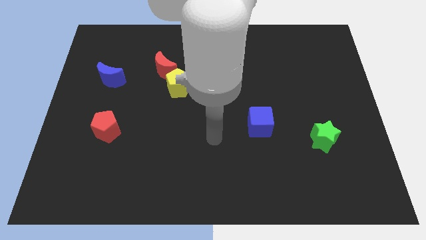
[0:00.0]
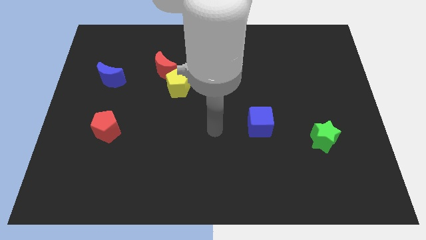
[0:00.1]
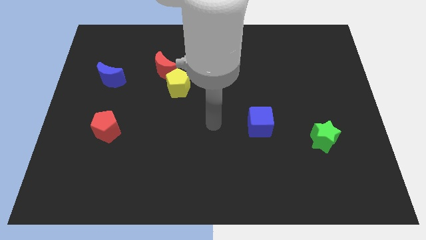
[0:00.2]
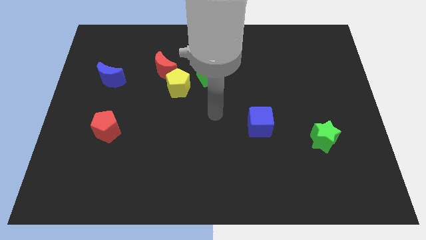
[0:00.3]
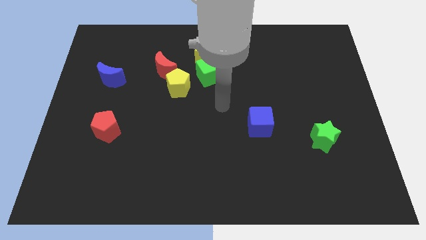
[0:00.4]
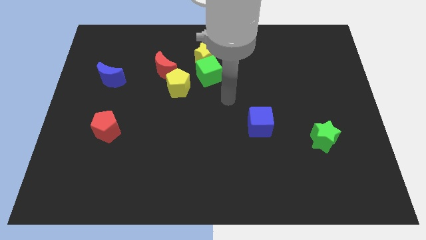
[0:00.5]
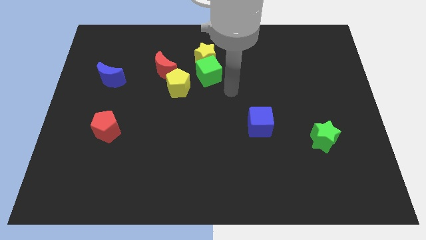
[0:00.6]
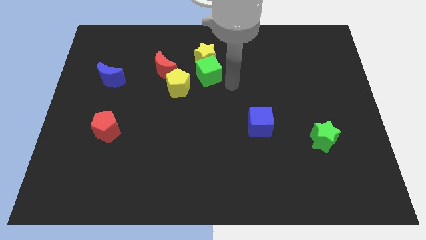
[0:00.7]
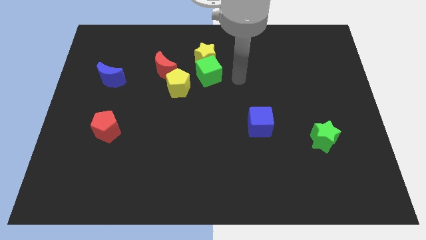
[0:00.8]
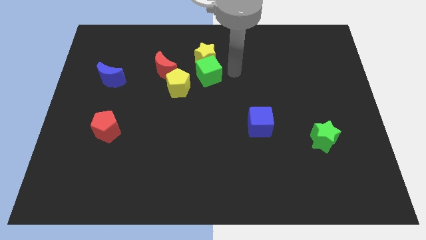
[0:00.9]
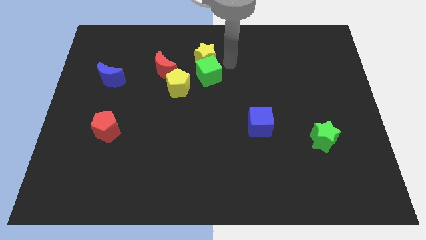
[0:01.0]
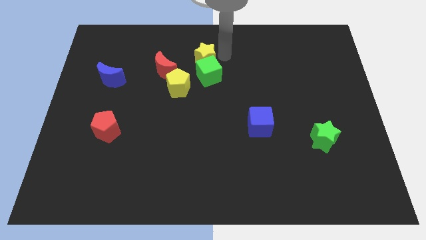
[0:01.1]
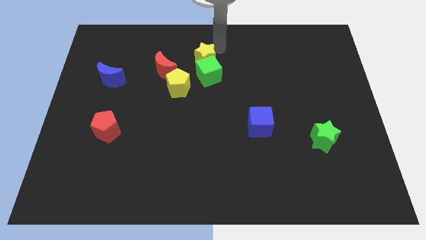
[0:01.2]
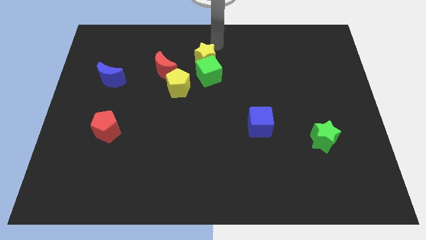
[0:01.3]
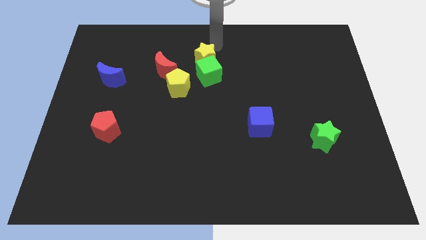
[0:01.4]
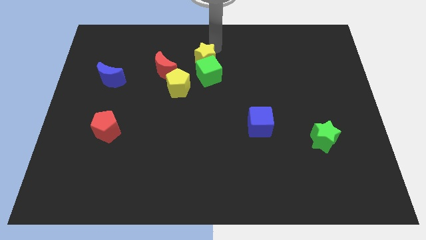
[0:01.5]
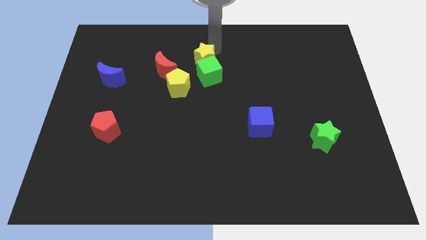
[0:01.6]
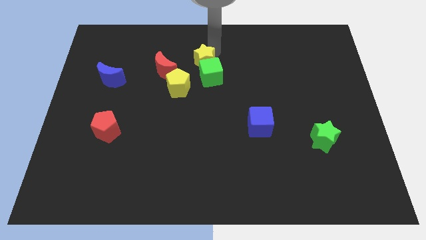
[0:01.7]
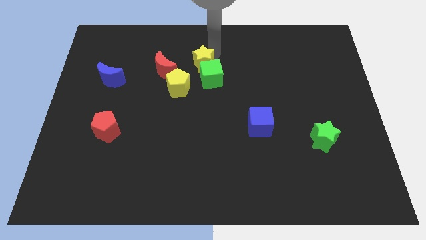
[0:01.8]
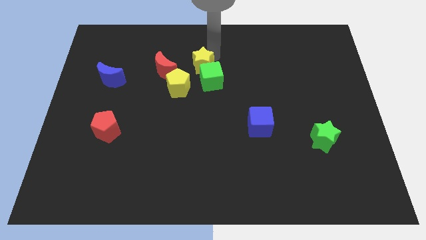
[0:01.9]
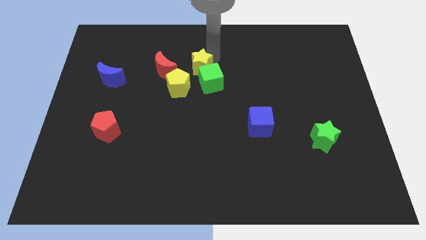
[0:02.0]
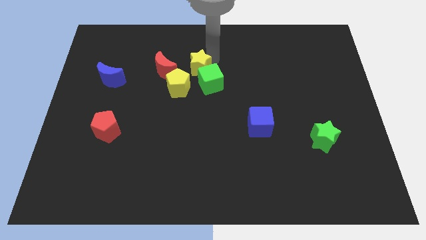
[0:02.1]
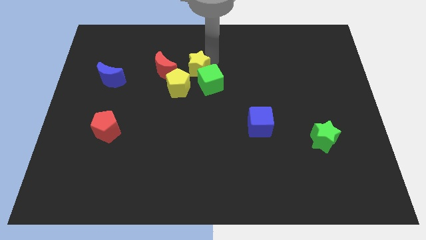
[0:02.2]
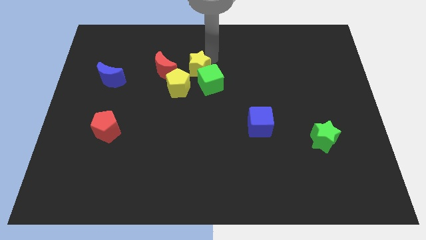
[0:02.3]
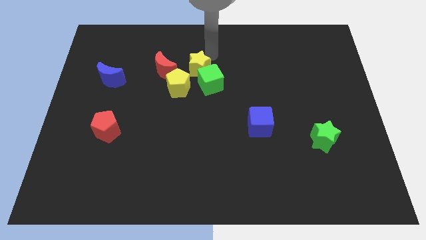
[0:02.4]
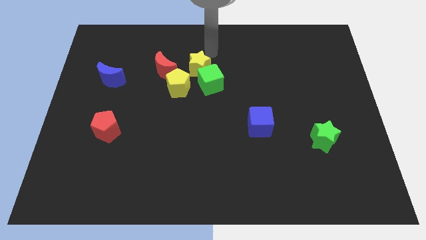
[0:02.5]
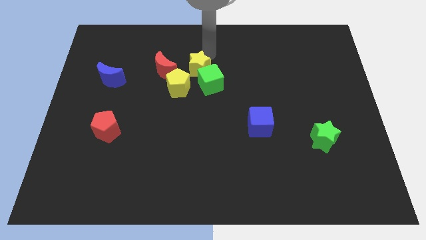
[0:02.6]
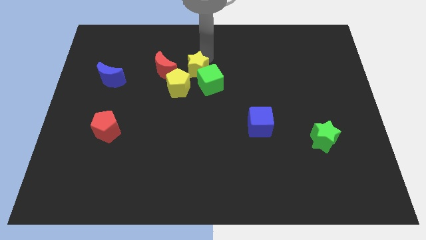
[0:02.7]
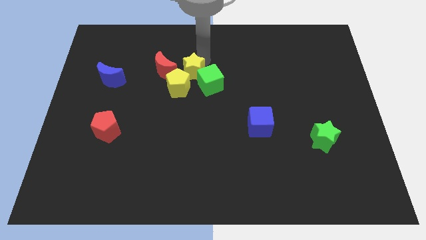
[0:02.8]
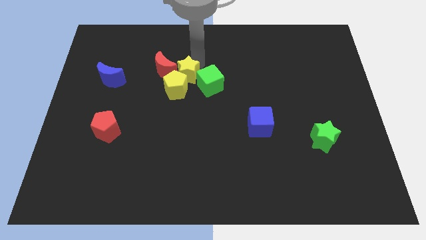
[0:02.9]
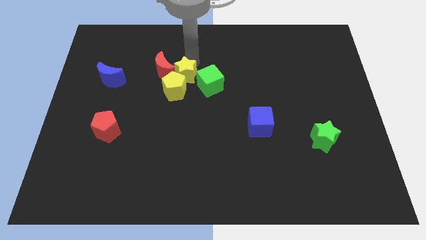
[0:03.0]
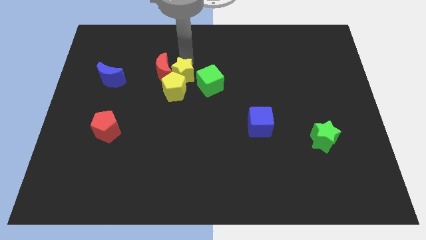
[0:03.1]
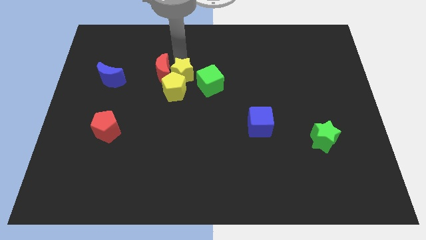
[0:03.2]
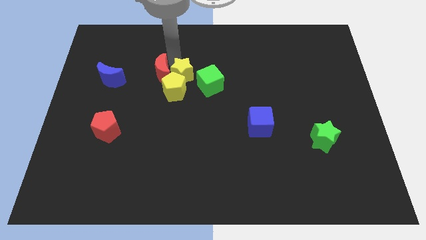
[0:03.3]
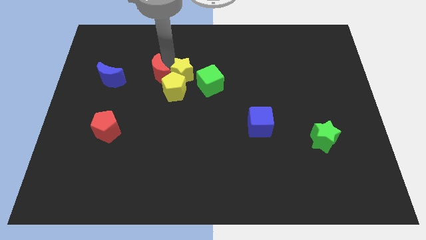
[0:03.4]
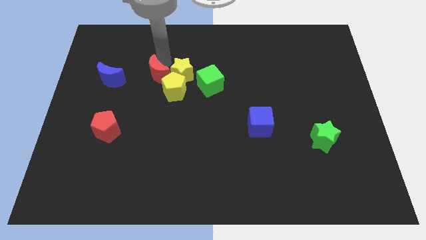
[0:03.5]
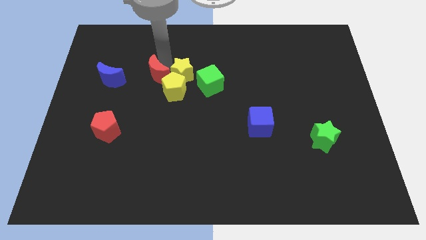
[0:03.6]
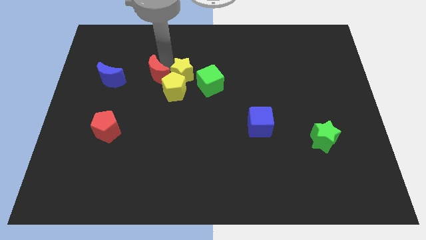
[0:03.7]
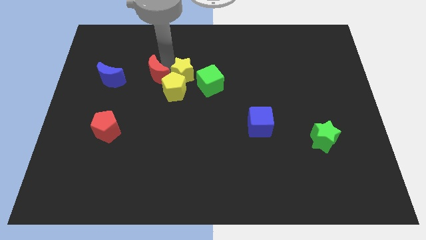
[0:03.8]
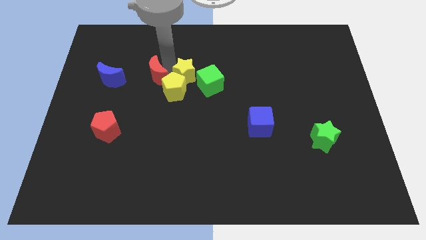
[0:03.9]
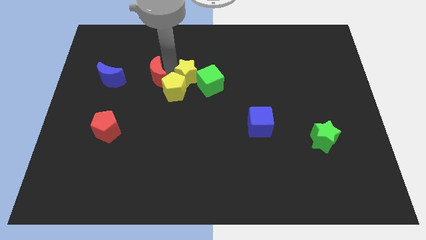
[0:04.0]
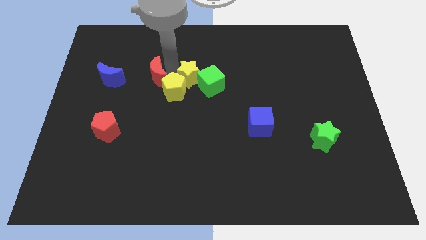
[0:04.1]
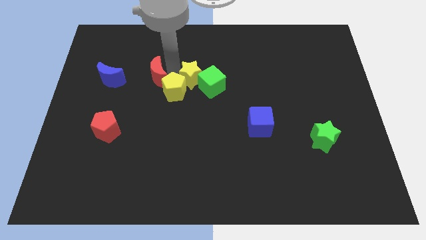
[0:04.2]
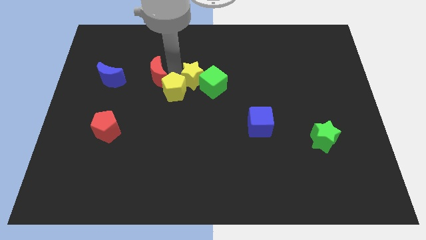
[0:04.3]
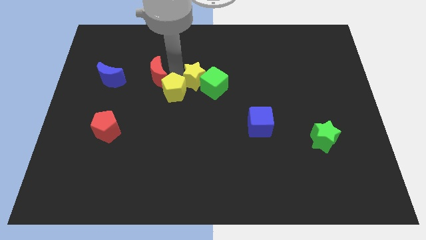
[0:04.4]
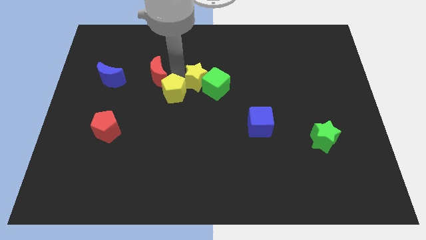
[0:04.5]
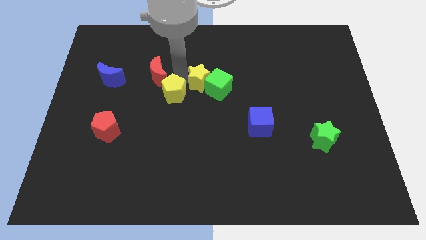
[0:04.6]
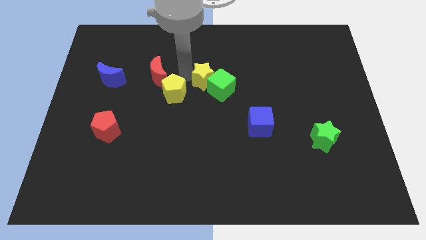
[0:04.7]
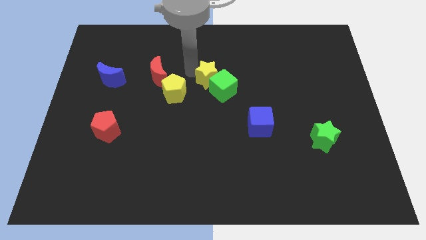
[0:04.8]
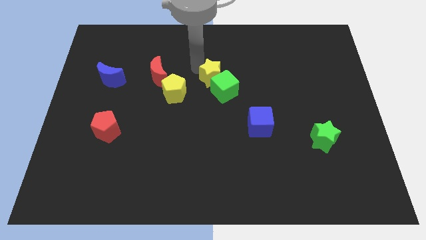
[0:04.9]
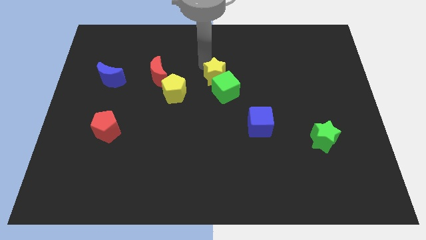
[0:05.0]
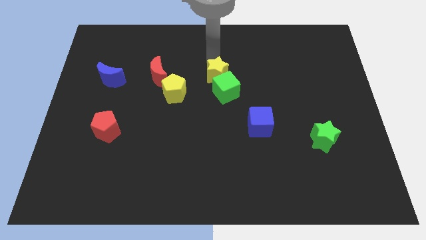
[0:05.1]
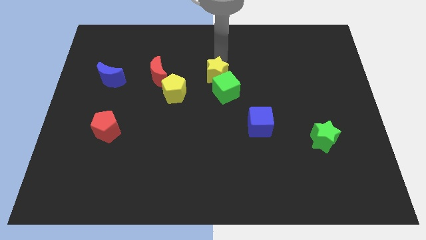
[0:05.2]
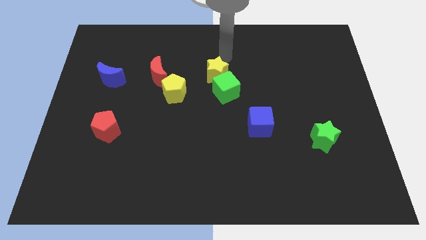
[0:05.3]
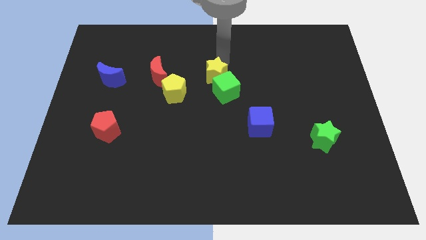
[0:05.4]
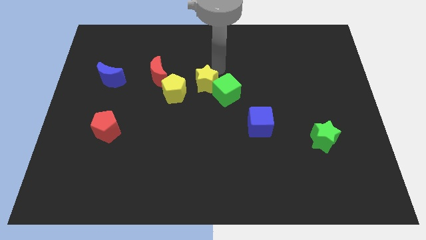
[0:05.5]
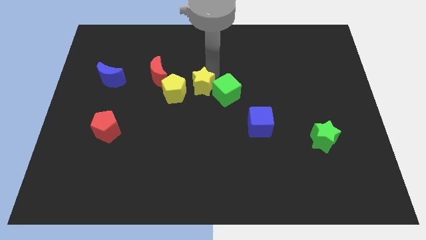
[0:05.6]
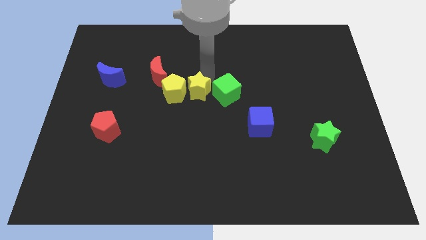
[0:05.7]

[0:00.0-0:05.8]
put the yellow star to the bottom right side of the yellow pentagon
